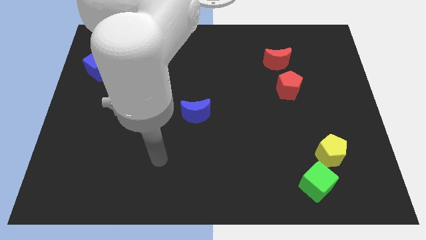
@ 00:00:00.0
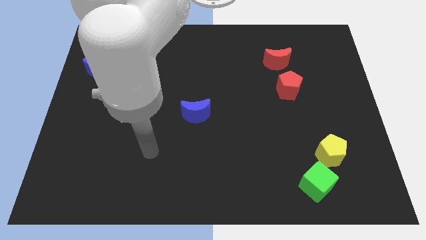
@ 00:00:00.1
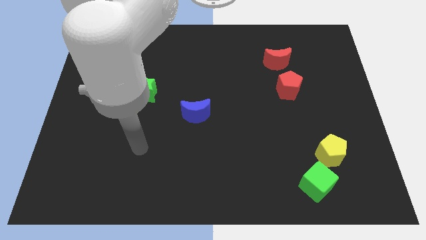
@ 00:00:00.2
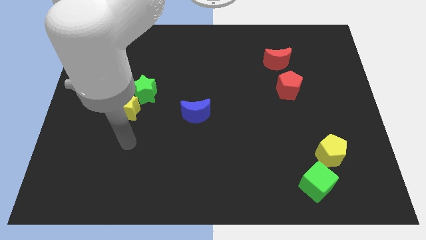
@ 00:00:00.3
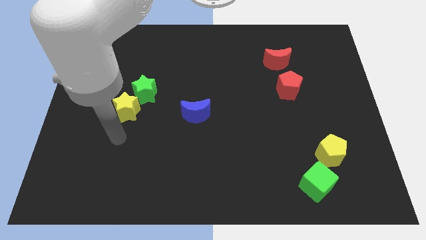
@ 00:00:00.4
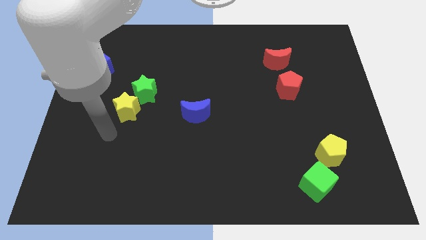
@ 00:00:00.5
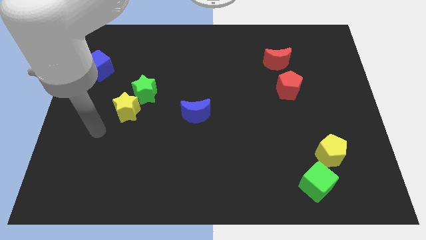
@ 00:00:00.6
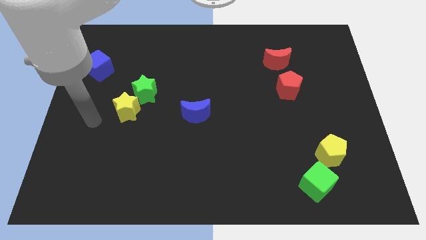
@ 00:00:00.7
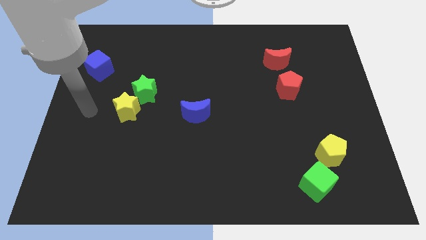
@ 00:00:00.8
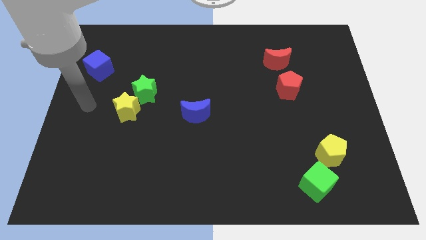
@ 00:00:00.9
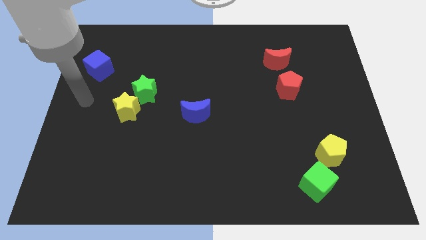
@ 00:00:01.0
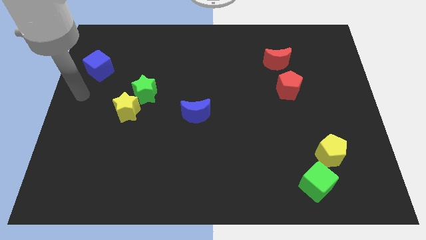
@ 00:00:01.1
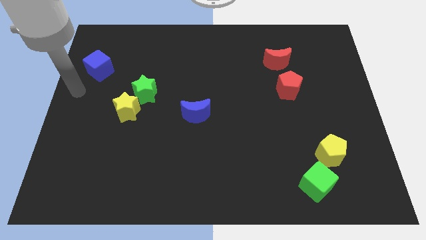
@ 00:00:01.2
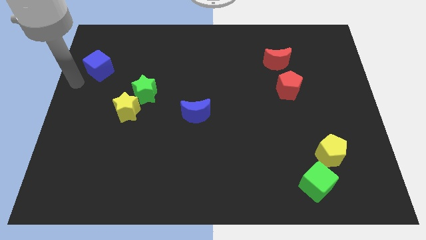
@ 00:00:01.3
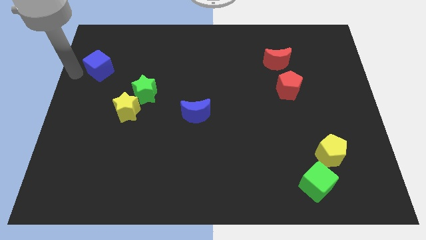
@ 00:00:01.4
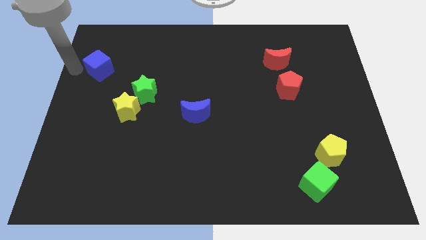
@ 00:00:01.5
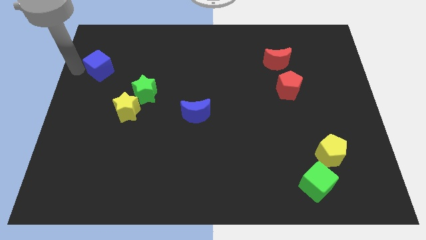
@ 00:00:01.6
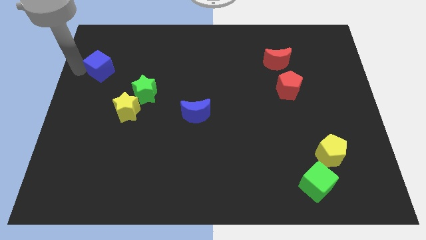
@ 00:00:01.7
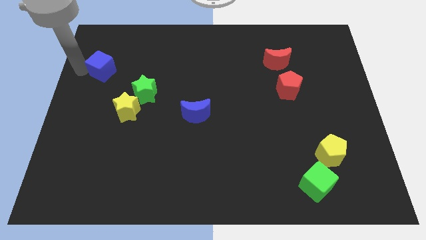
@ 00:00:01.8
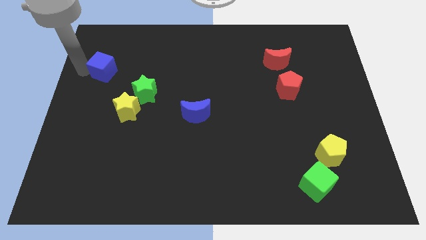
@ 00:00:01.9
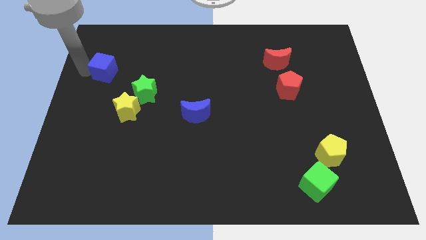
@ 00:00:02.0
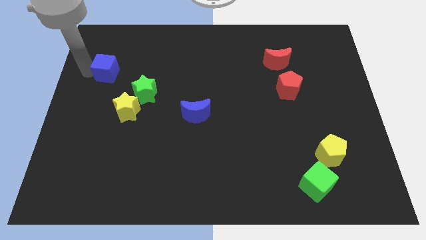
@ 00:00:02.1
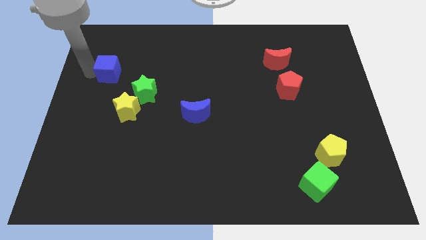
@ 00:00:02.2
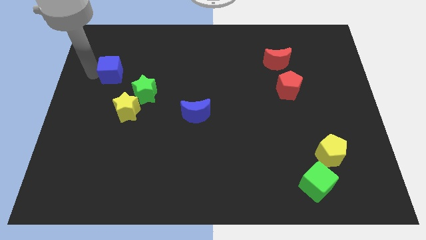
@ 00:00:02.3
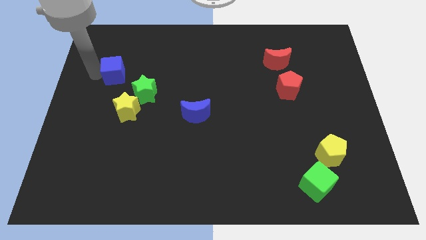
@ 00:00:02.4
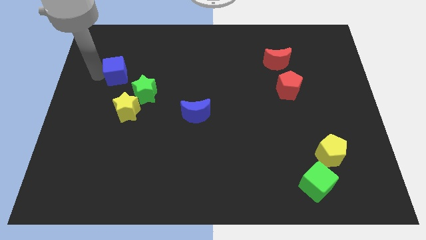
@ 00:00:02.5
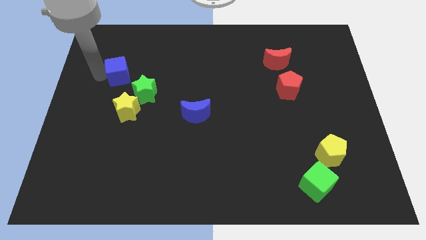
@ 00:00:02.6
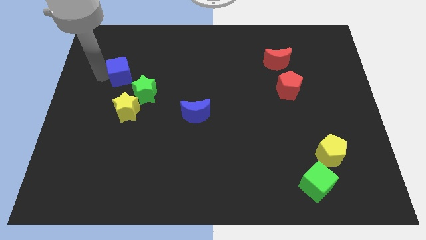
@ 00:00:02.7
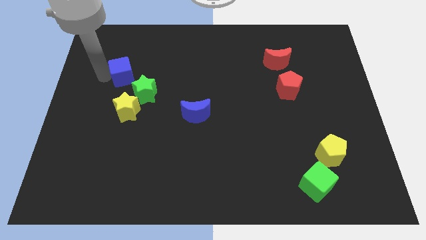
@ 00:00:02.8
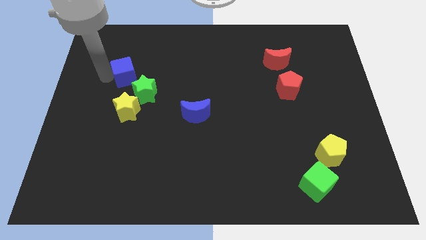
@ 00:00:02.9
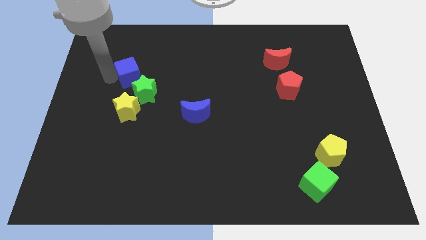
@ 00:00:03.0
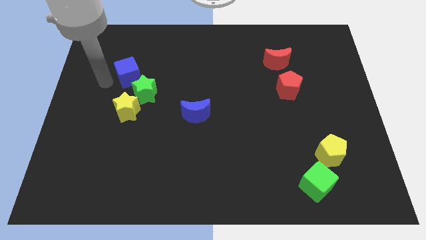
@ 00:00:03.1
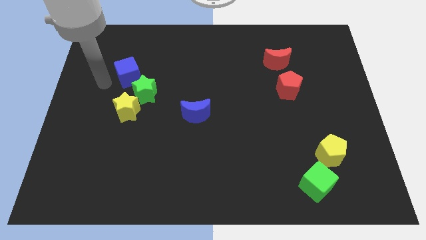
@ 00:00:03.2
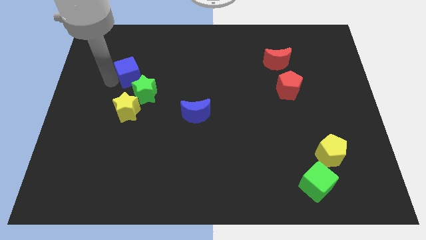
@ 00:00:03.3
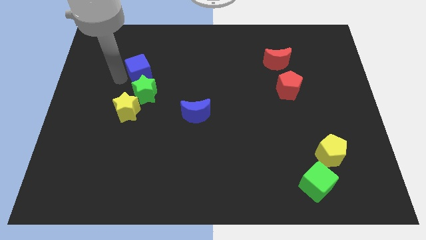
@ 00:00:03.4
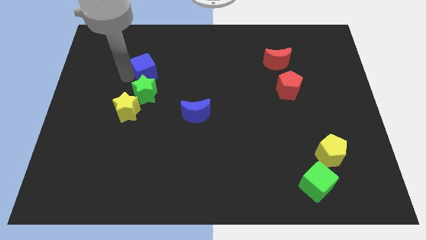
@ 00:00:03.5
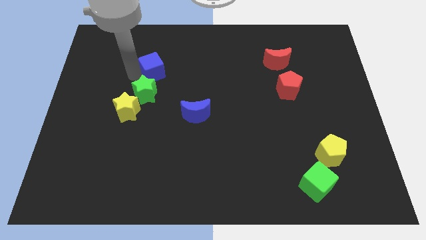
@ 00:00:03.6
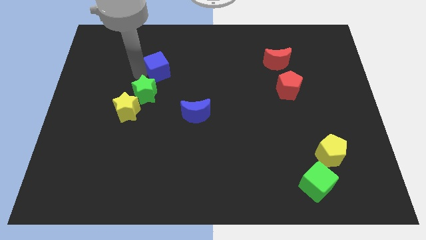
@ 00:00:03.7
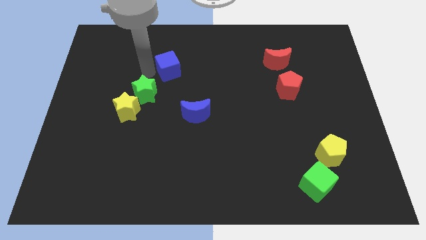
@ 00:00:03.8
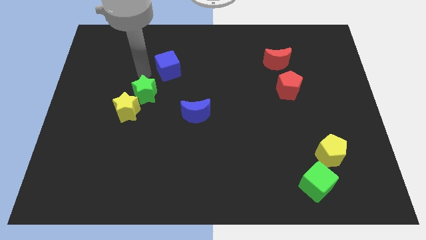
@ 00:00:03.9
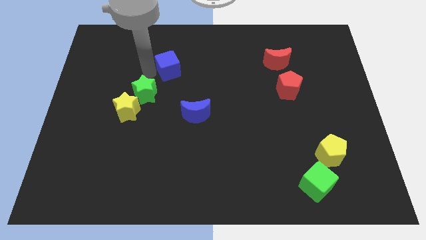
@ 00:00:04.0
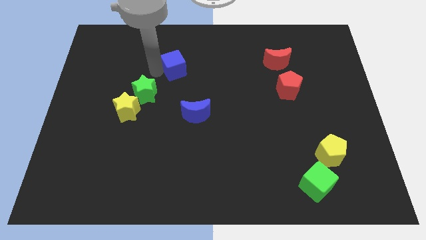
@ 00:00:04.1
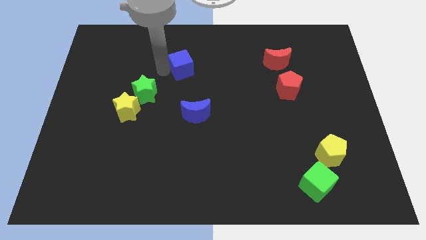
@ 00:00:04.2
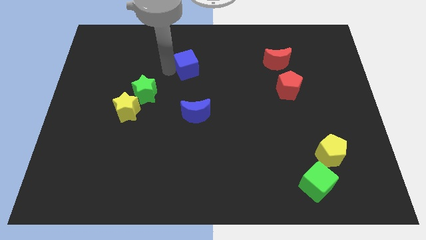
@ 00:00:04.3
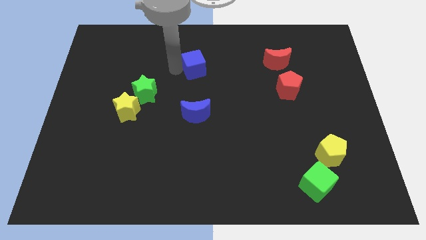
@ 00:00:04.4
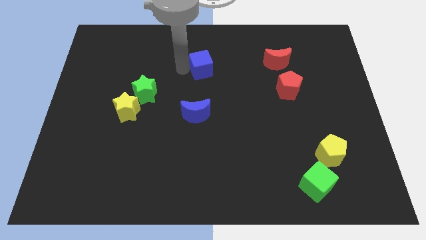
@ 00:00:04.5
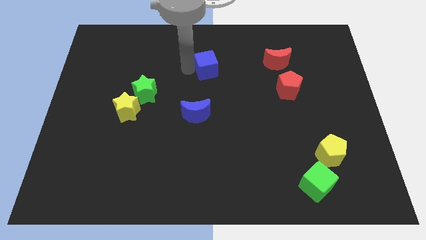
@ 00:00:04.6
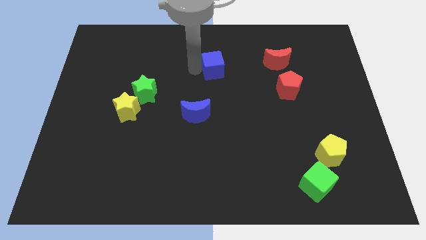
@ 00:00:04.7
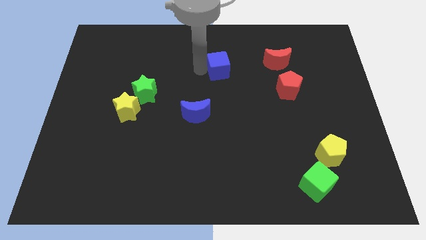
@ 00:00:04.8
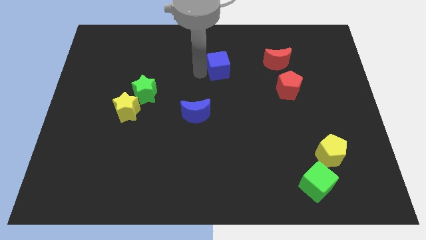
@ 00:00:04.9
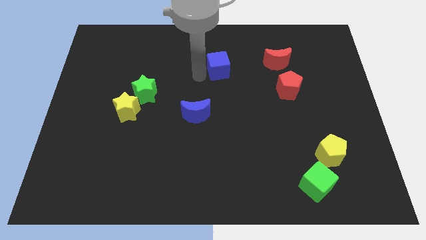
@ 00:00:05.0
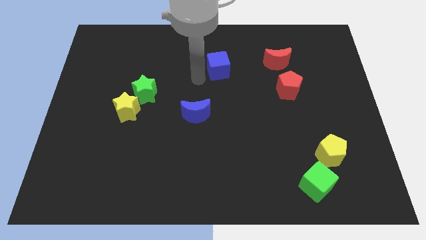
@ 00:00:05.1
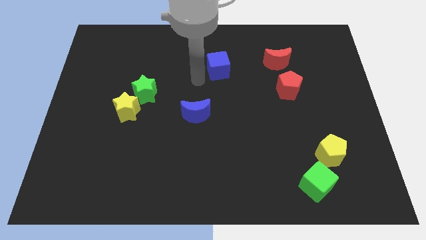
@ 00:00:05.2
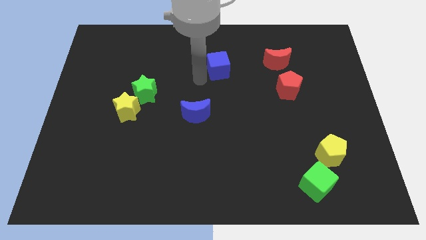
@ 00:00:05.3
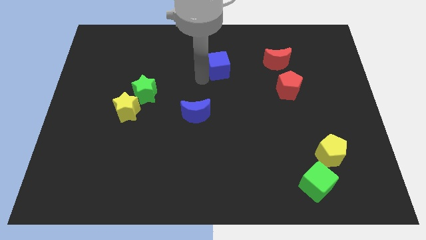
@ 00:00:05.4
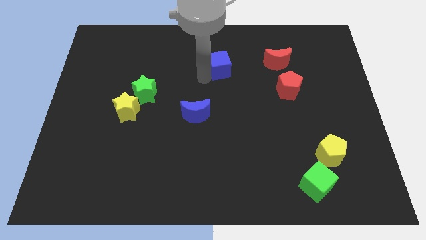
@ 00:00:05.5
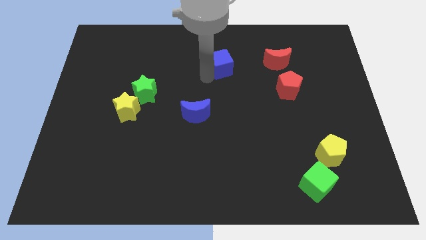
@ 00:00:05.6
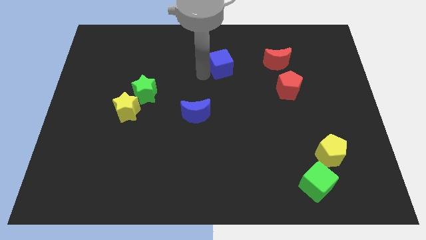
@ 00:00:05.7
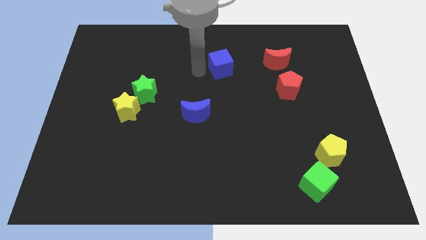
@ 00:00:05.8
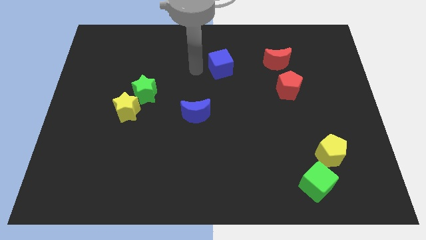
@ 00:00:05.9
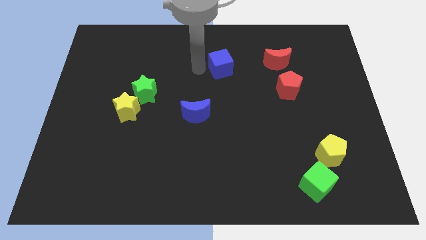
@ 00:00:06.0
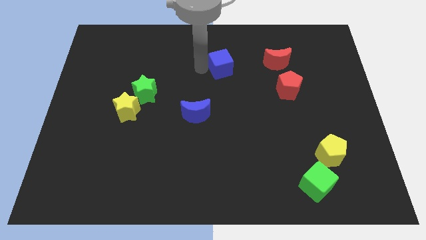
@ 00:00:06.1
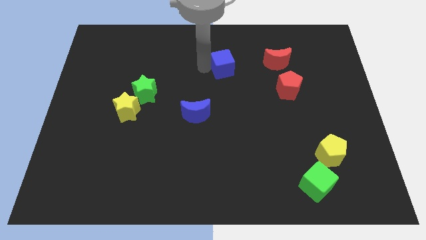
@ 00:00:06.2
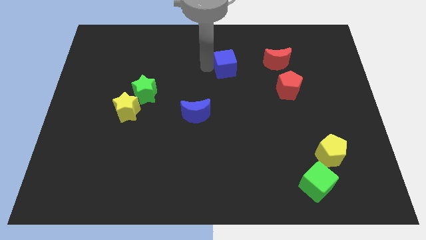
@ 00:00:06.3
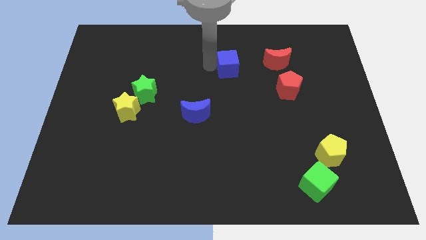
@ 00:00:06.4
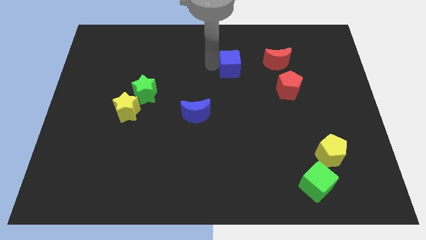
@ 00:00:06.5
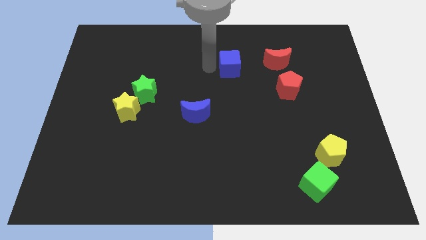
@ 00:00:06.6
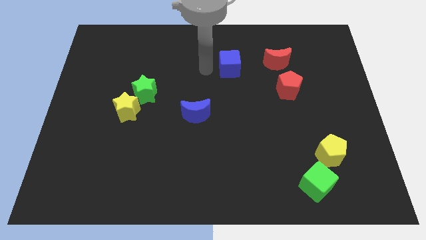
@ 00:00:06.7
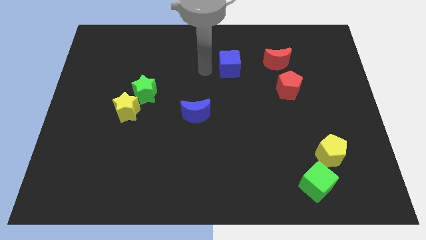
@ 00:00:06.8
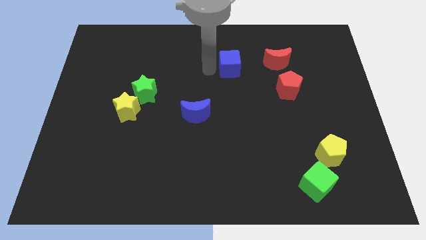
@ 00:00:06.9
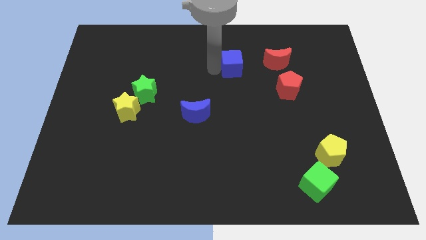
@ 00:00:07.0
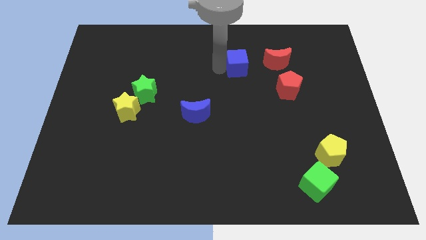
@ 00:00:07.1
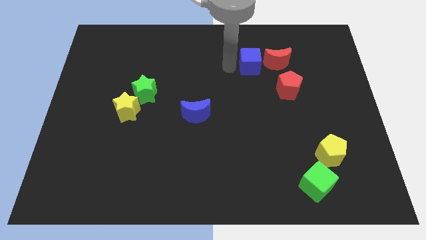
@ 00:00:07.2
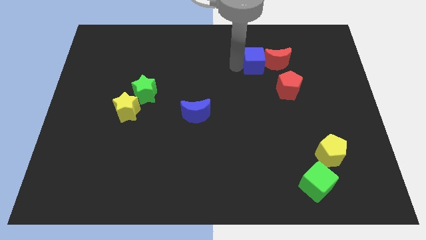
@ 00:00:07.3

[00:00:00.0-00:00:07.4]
slide the blue cube towards the red moon
